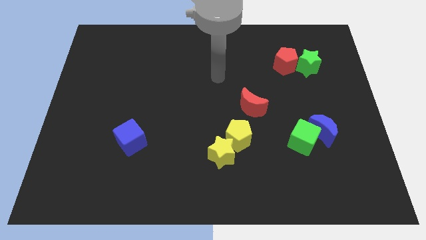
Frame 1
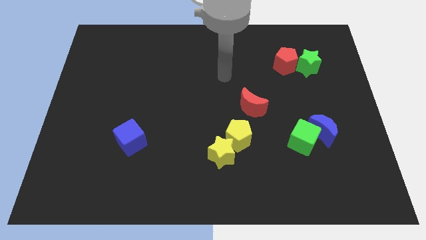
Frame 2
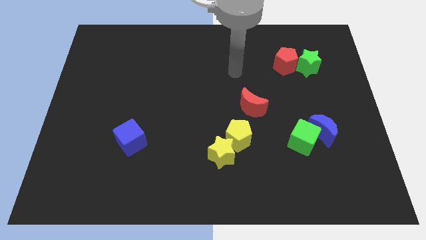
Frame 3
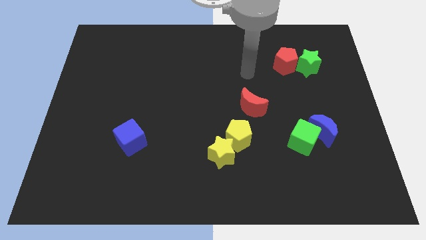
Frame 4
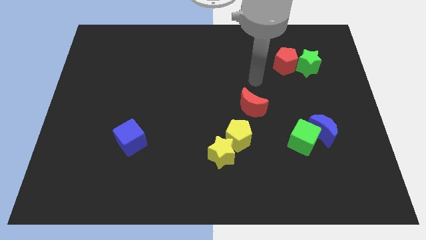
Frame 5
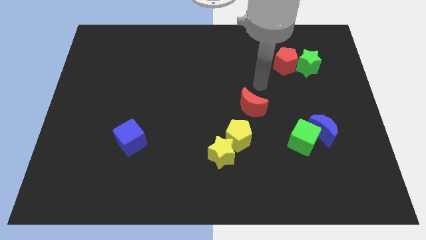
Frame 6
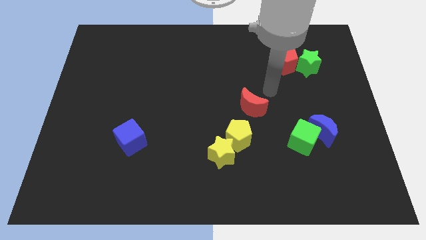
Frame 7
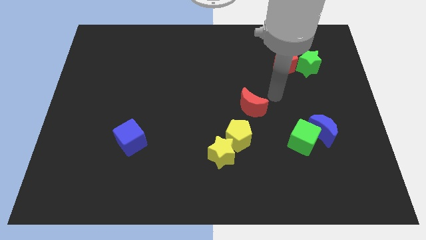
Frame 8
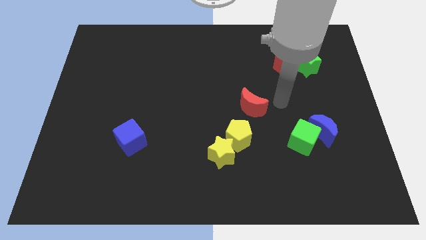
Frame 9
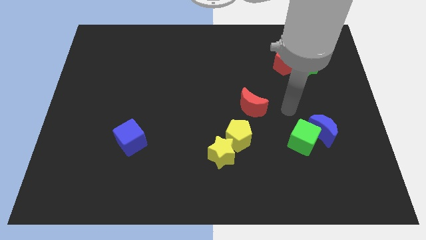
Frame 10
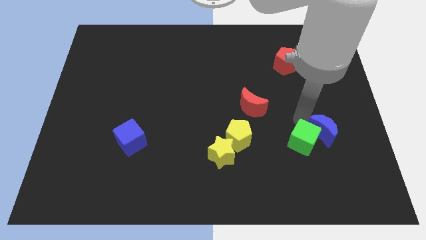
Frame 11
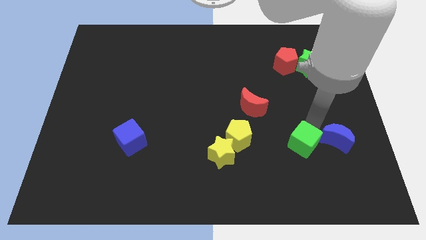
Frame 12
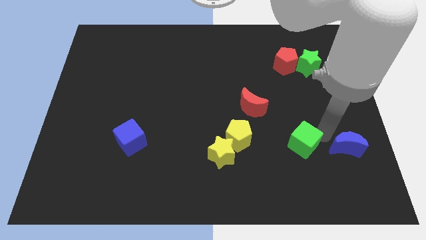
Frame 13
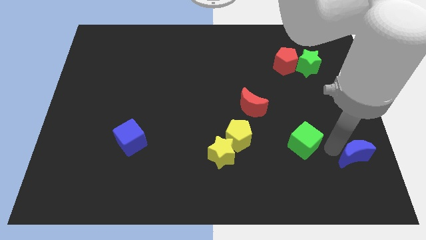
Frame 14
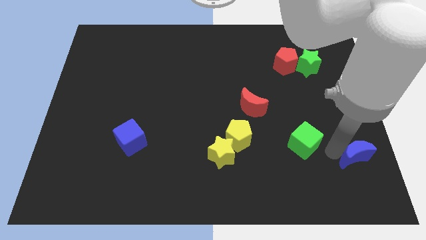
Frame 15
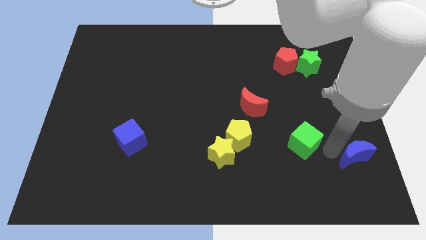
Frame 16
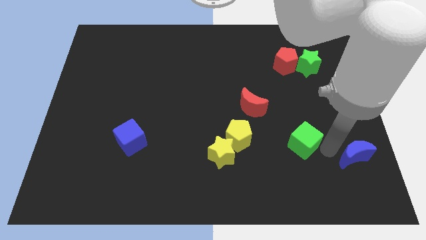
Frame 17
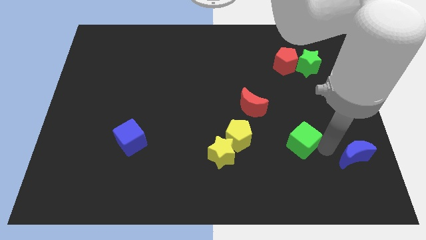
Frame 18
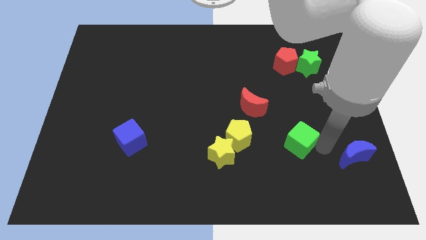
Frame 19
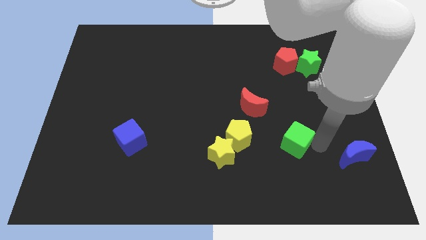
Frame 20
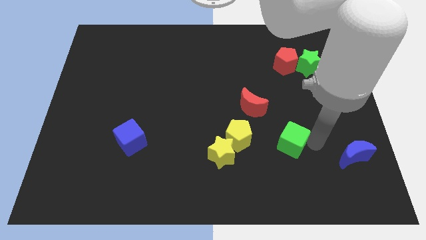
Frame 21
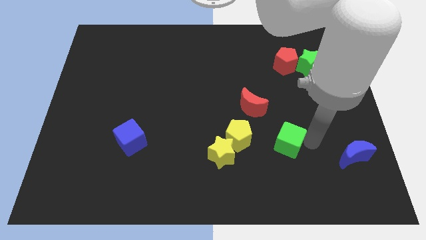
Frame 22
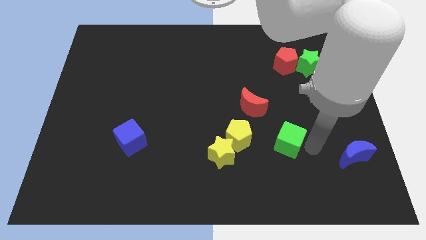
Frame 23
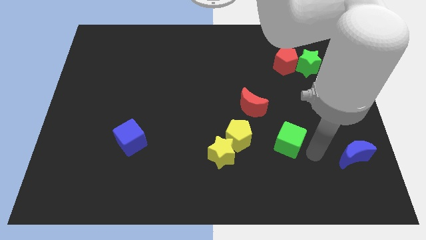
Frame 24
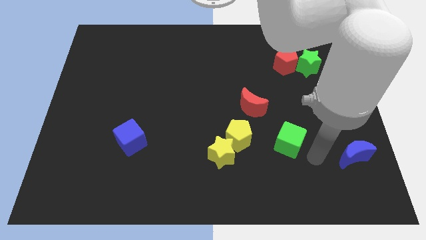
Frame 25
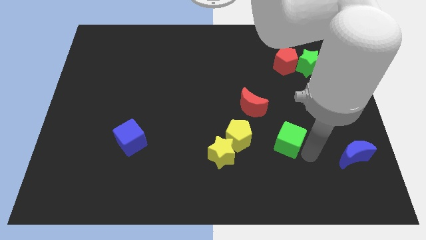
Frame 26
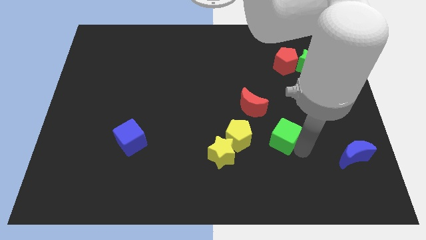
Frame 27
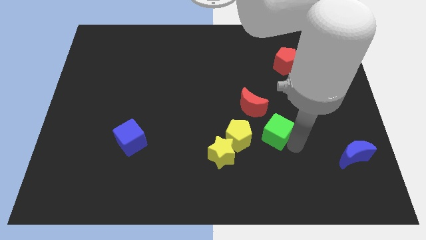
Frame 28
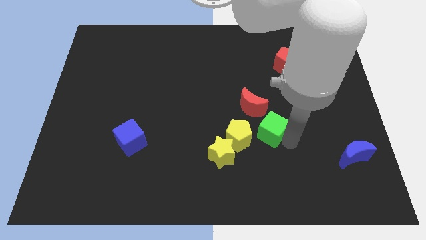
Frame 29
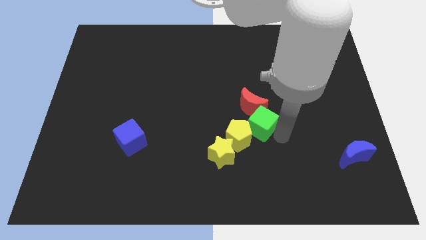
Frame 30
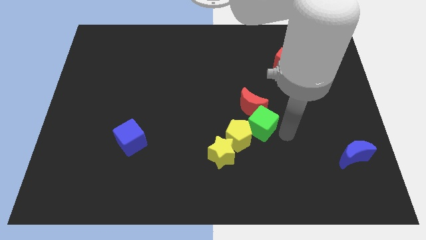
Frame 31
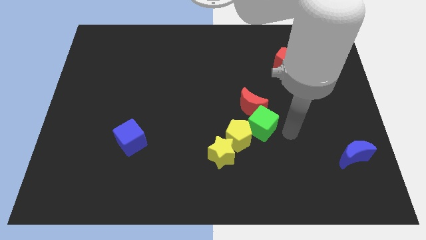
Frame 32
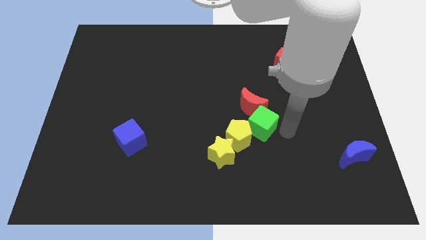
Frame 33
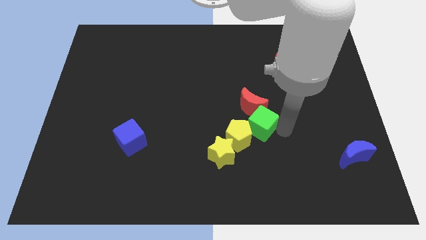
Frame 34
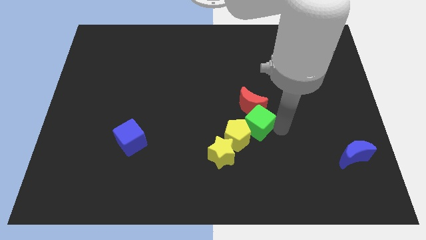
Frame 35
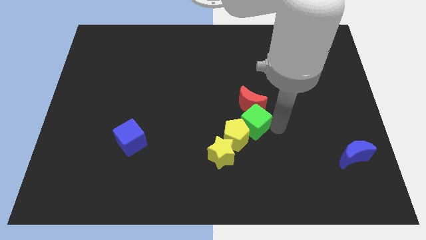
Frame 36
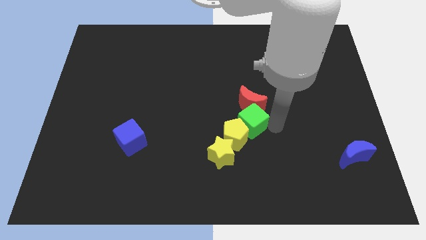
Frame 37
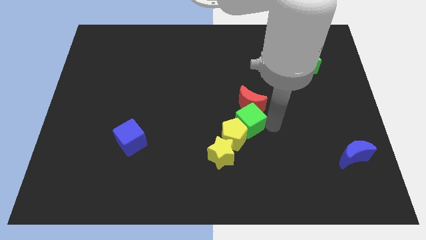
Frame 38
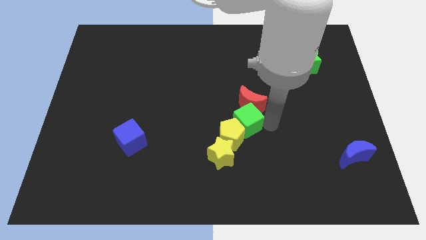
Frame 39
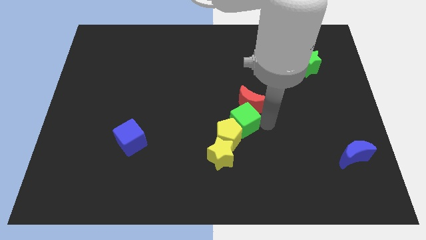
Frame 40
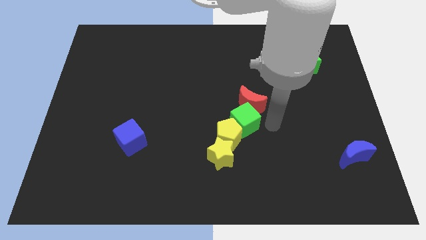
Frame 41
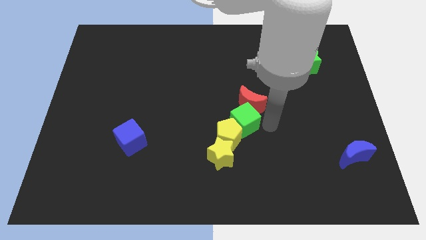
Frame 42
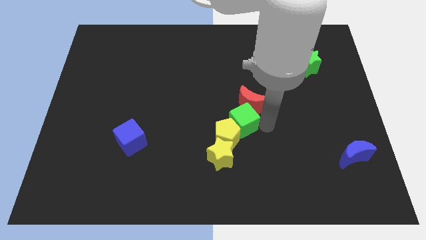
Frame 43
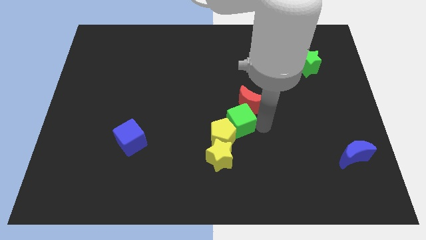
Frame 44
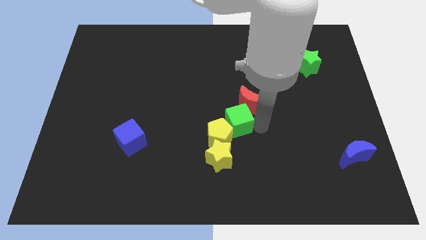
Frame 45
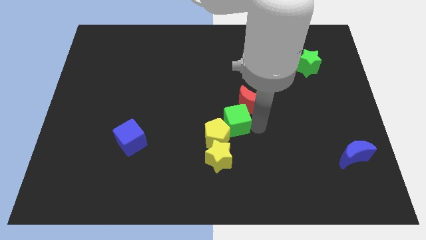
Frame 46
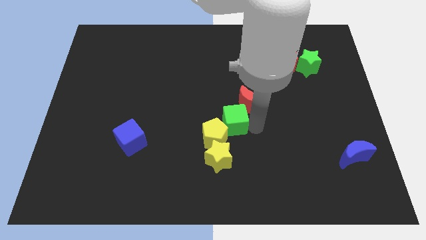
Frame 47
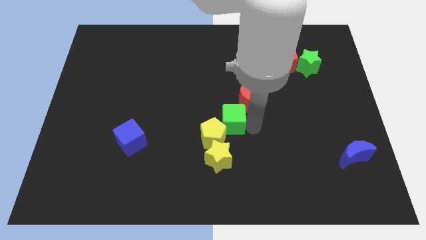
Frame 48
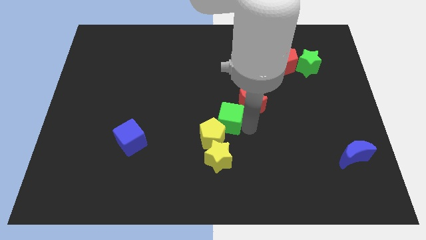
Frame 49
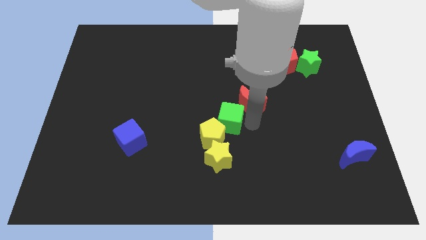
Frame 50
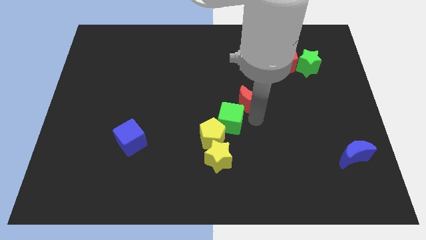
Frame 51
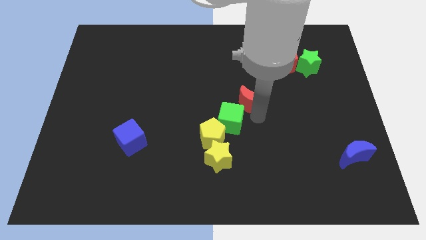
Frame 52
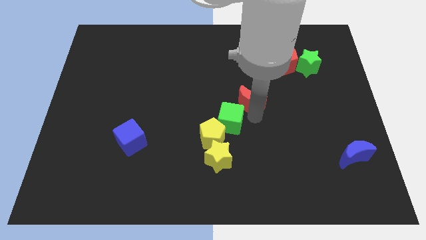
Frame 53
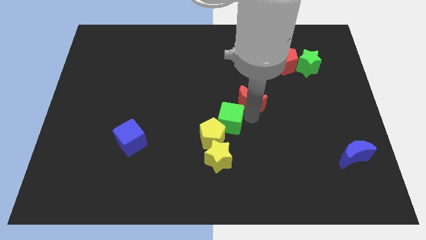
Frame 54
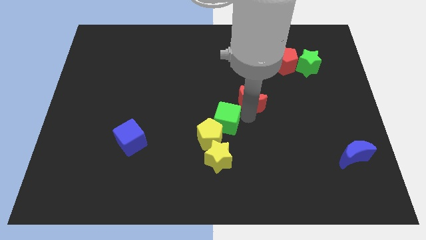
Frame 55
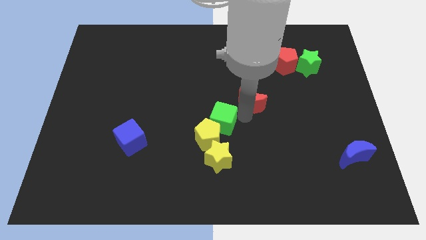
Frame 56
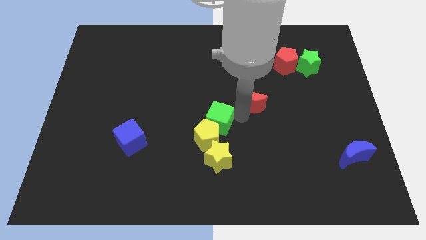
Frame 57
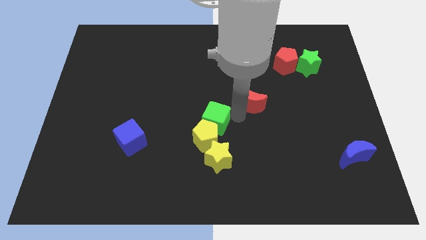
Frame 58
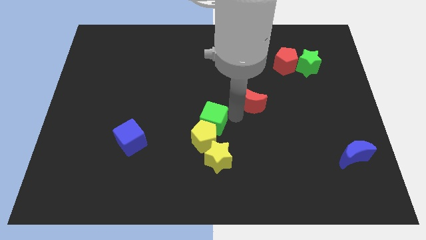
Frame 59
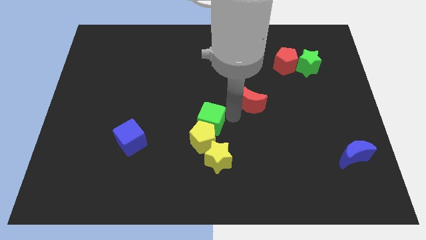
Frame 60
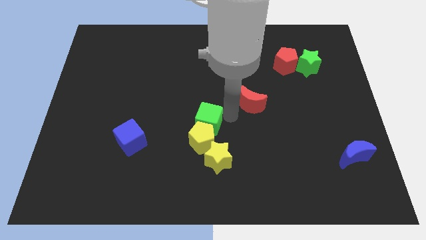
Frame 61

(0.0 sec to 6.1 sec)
move the green cube to the left

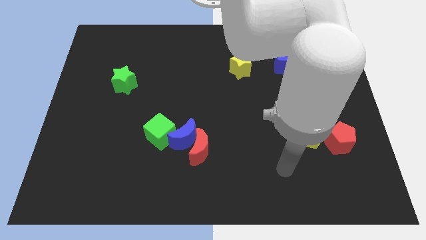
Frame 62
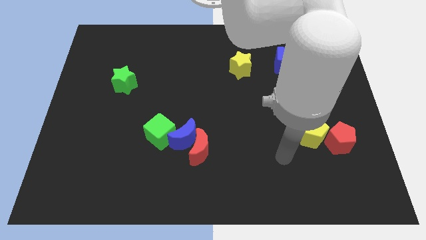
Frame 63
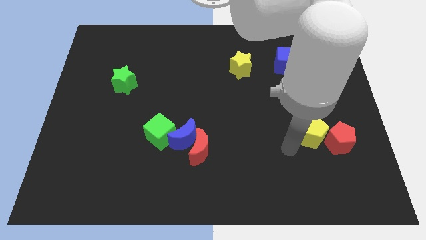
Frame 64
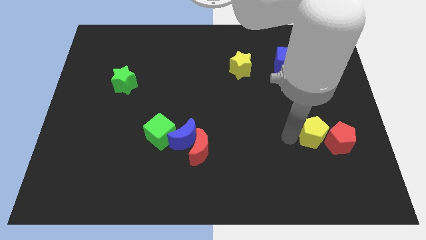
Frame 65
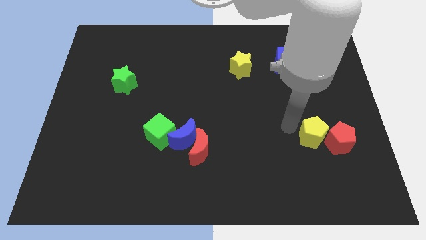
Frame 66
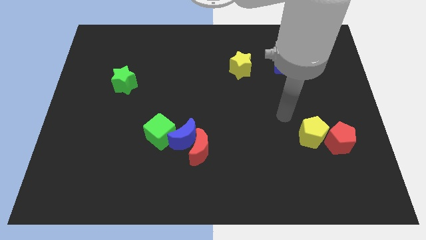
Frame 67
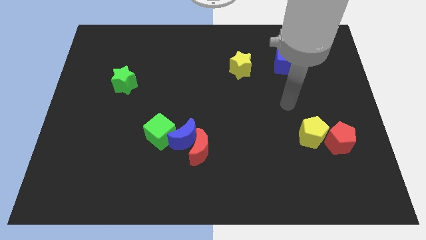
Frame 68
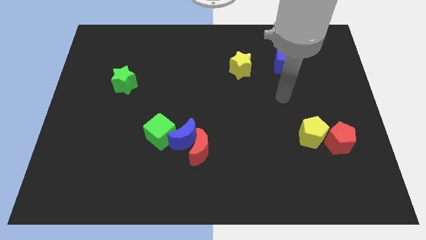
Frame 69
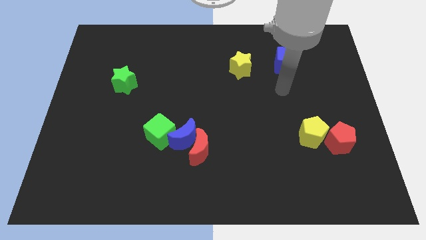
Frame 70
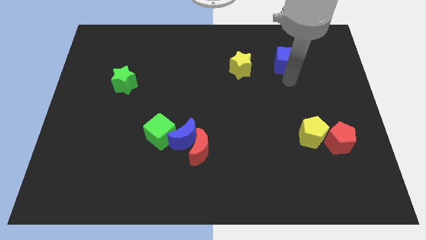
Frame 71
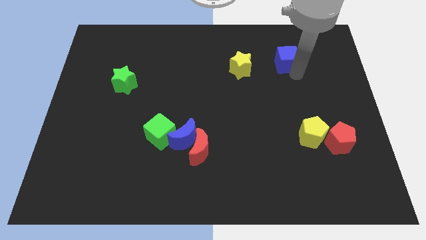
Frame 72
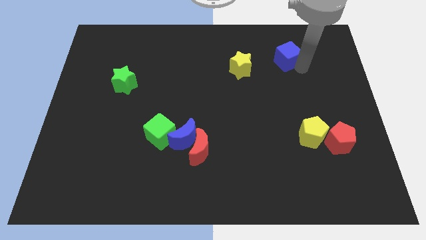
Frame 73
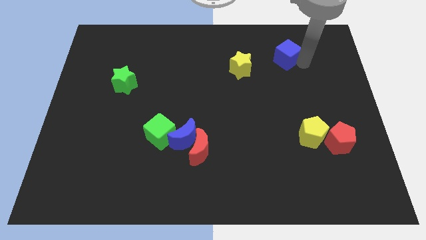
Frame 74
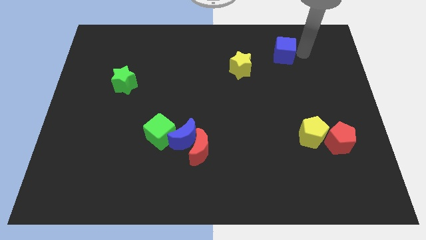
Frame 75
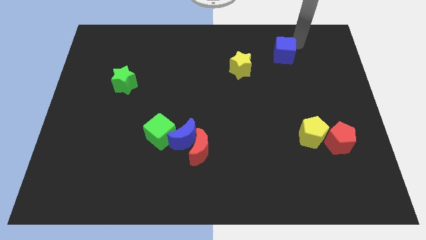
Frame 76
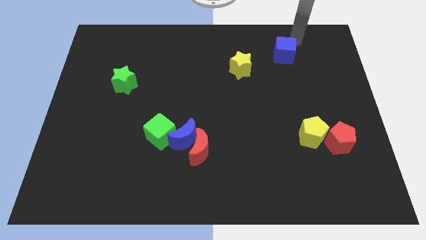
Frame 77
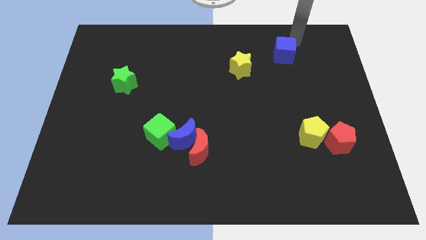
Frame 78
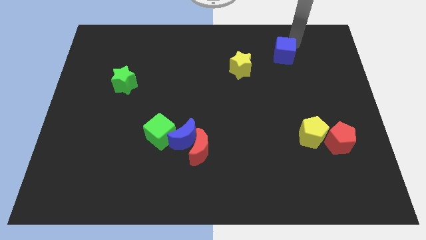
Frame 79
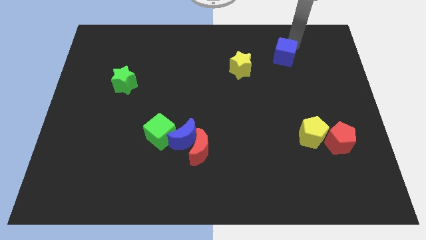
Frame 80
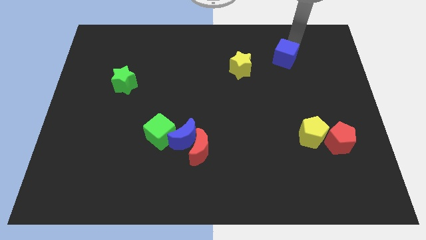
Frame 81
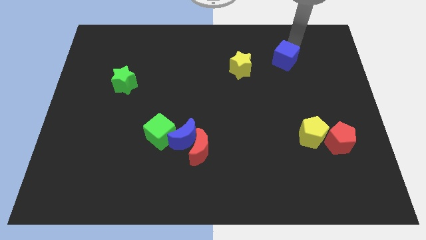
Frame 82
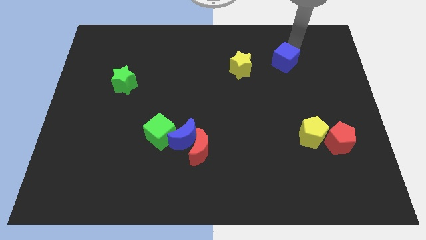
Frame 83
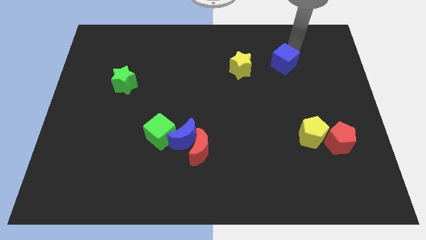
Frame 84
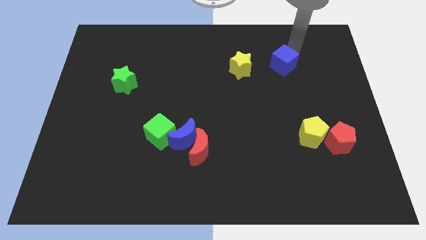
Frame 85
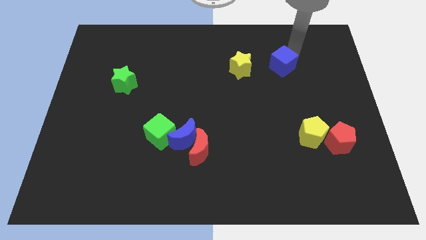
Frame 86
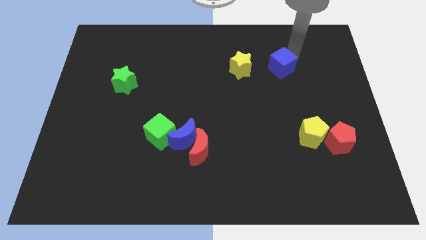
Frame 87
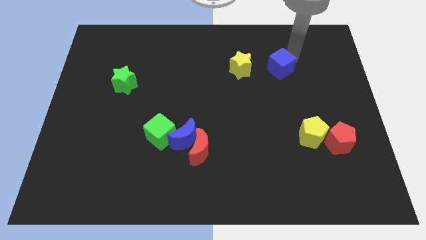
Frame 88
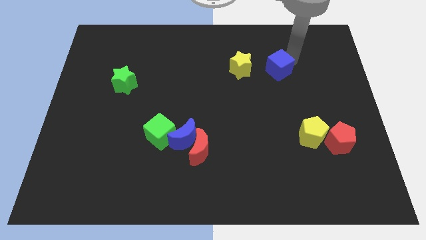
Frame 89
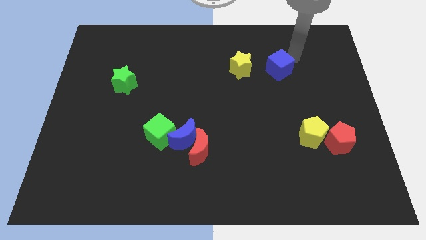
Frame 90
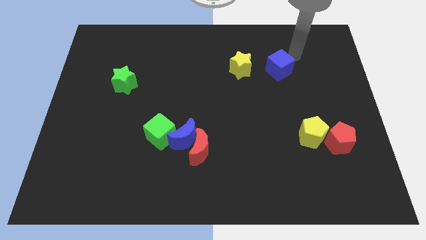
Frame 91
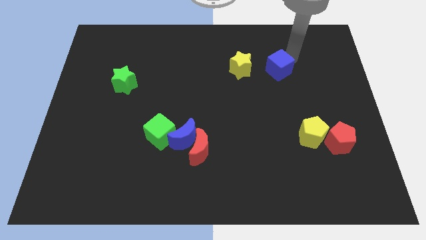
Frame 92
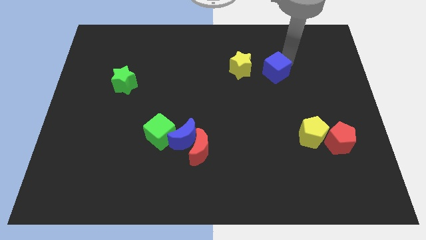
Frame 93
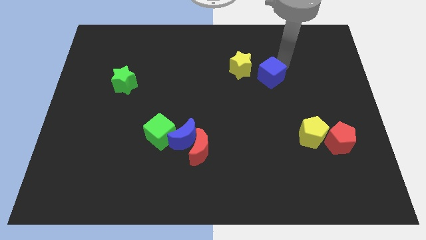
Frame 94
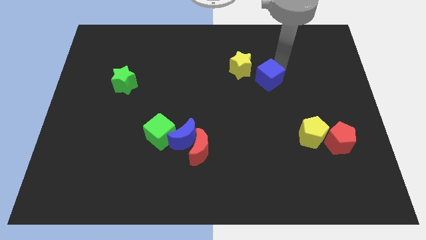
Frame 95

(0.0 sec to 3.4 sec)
slightly move the blue cube downwards and left
